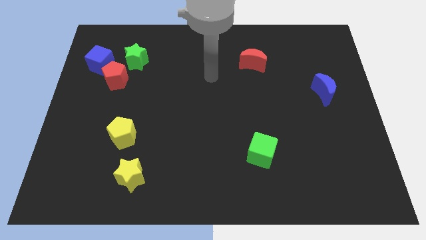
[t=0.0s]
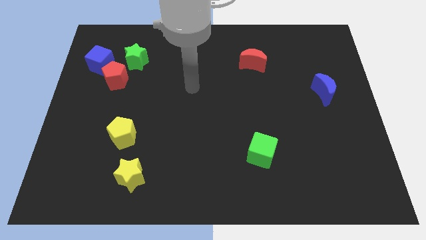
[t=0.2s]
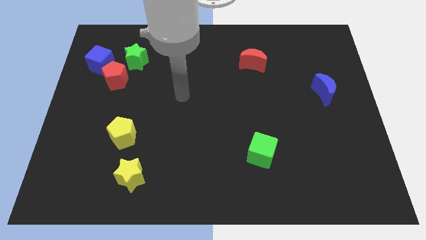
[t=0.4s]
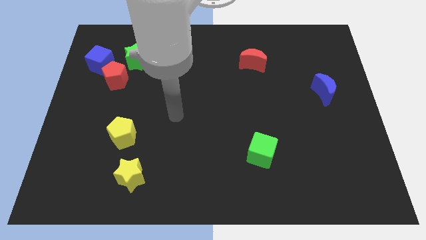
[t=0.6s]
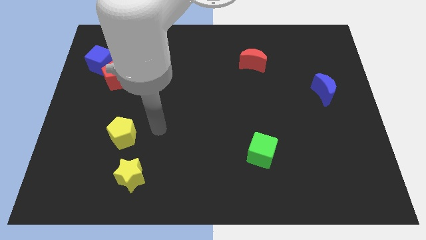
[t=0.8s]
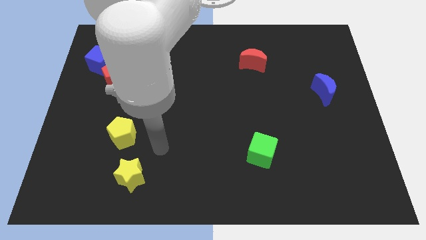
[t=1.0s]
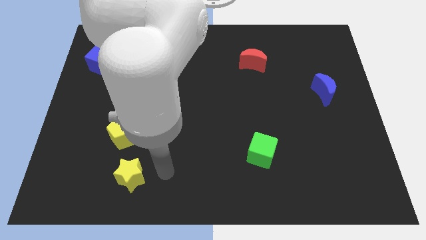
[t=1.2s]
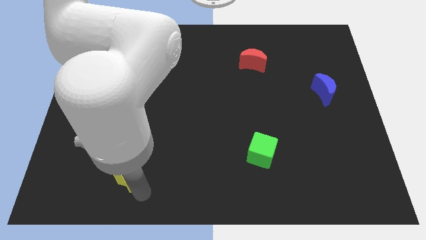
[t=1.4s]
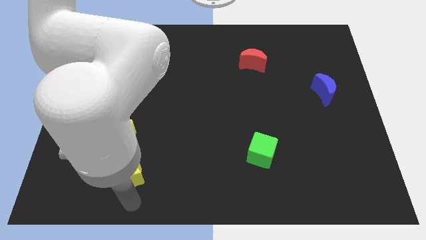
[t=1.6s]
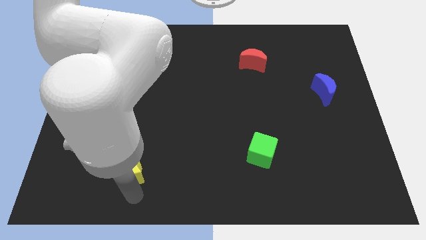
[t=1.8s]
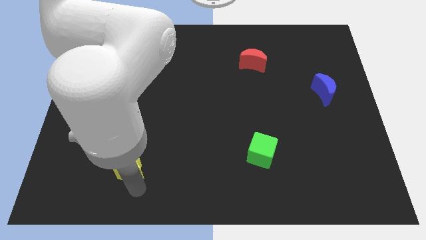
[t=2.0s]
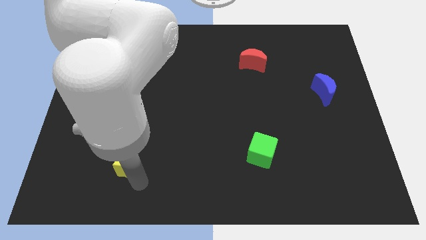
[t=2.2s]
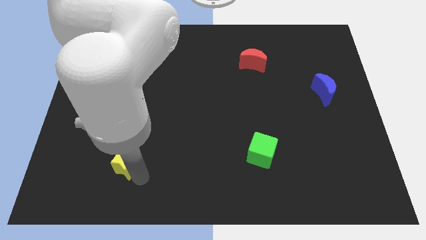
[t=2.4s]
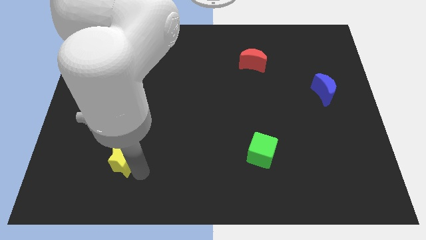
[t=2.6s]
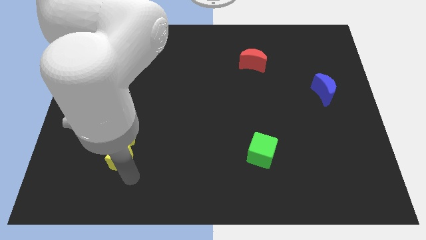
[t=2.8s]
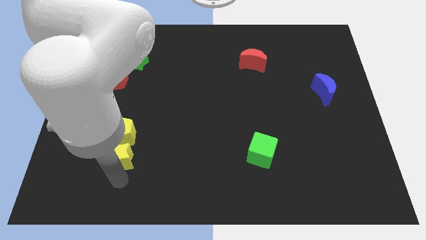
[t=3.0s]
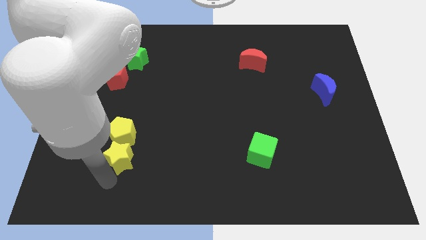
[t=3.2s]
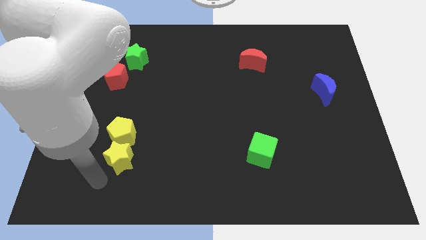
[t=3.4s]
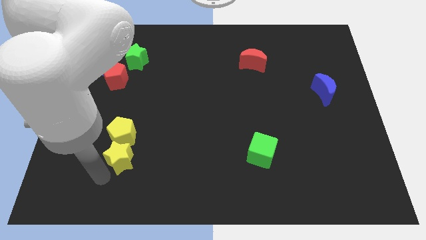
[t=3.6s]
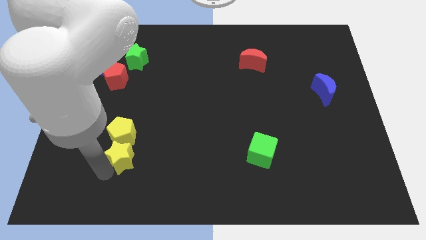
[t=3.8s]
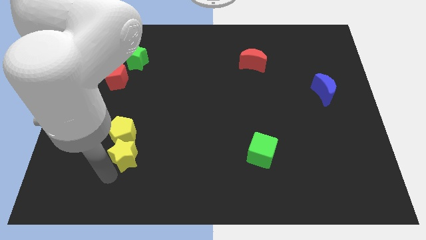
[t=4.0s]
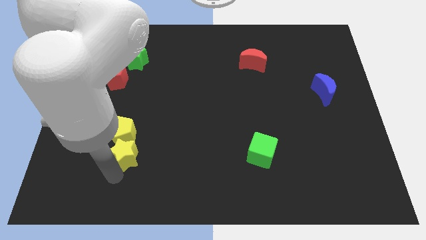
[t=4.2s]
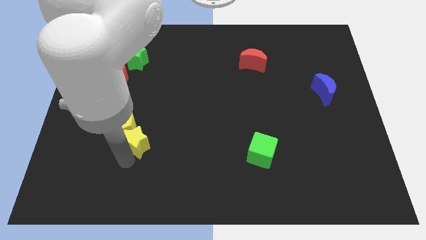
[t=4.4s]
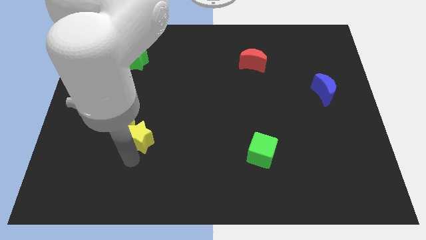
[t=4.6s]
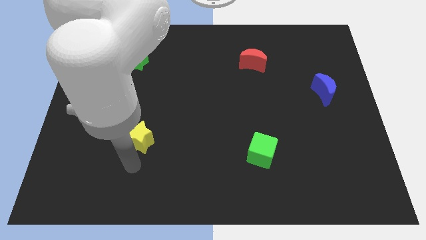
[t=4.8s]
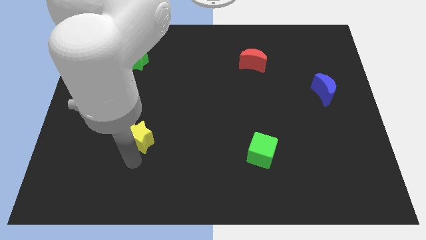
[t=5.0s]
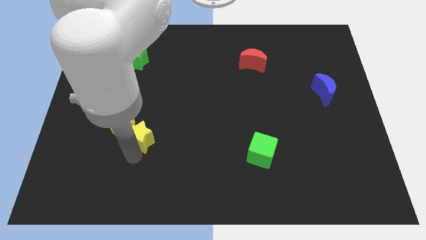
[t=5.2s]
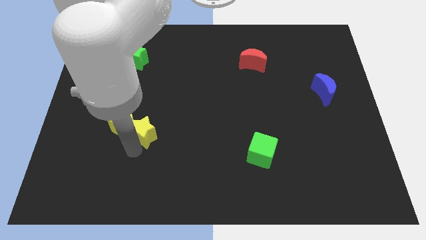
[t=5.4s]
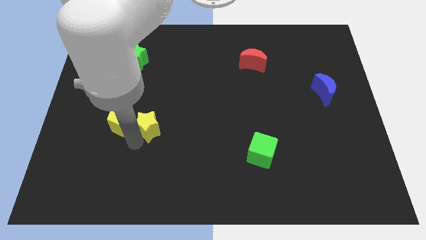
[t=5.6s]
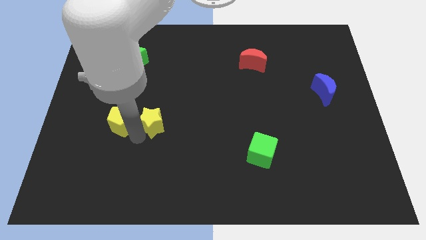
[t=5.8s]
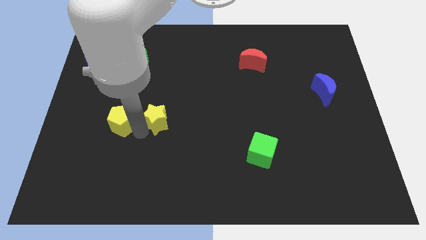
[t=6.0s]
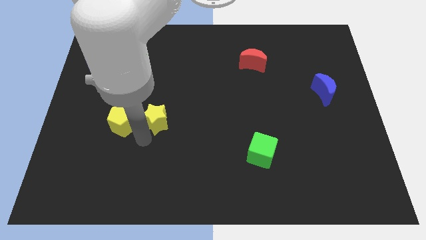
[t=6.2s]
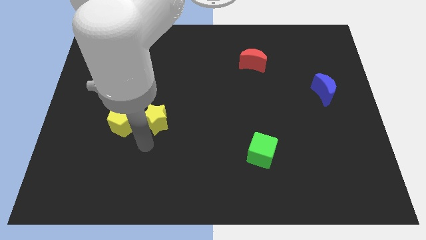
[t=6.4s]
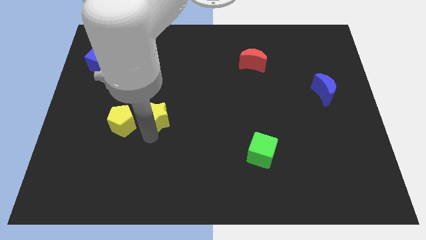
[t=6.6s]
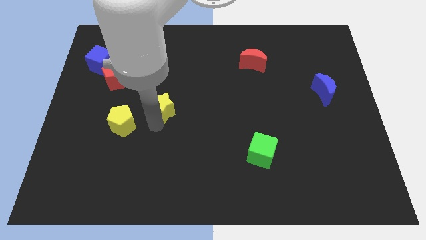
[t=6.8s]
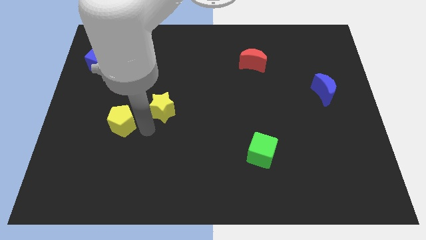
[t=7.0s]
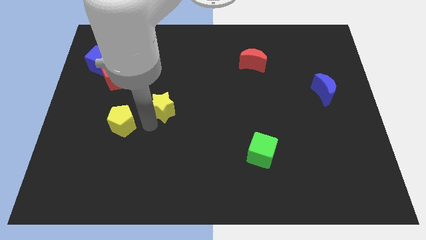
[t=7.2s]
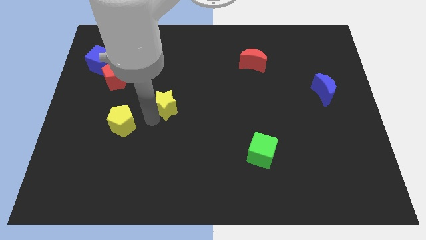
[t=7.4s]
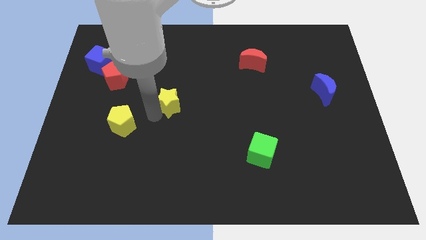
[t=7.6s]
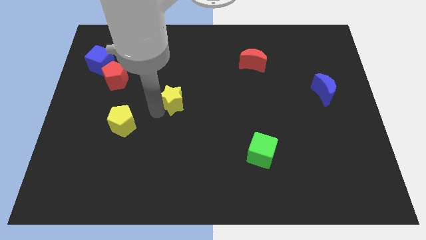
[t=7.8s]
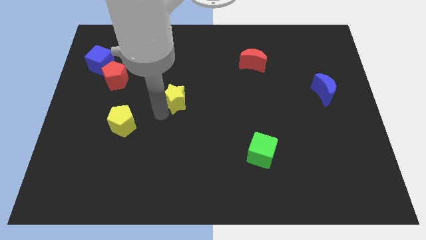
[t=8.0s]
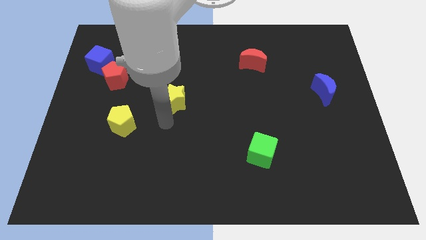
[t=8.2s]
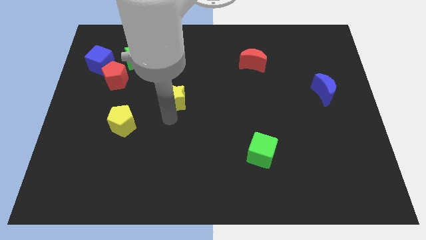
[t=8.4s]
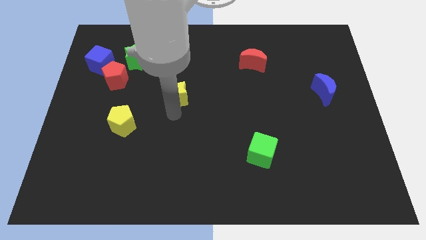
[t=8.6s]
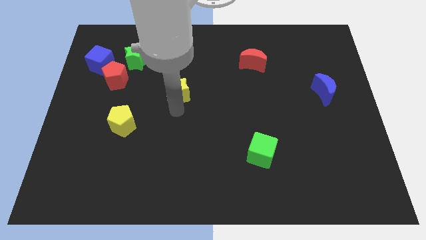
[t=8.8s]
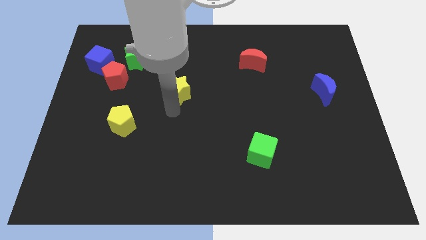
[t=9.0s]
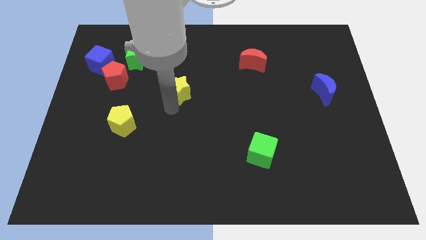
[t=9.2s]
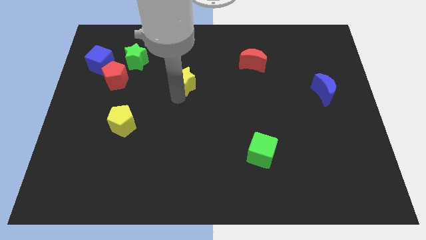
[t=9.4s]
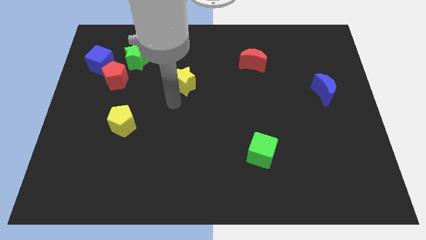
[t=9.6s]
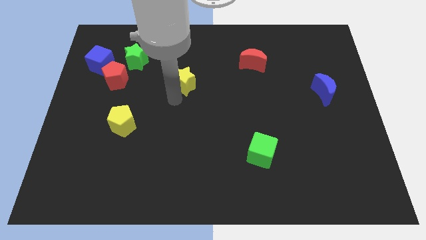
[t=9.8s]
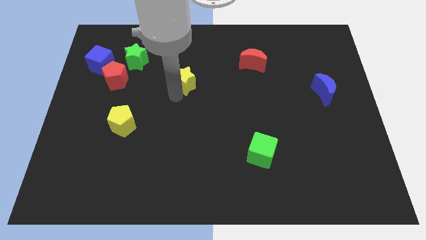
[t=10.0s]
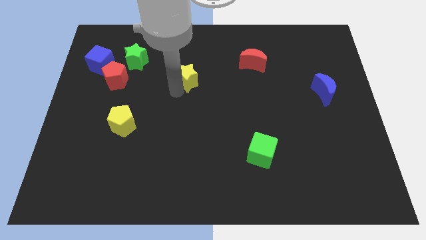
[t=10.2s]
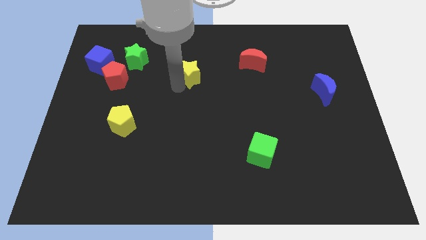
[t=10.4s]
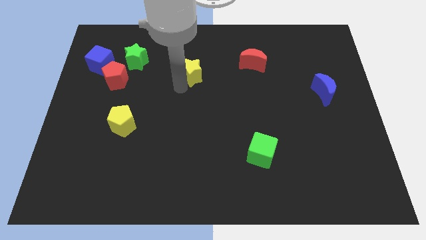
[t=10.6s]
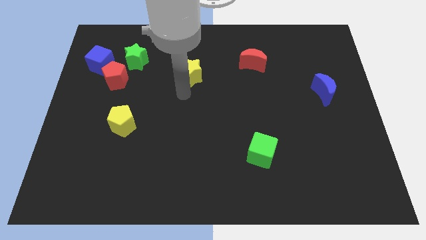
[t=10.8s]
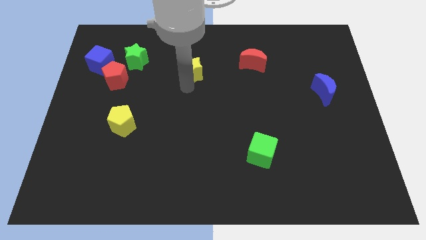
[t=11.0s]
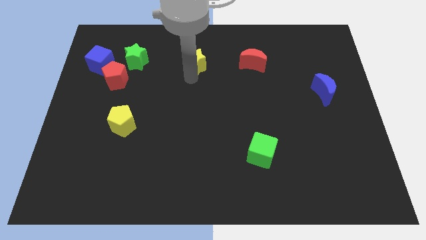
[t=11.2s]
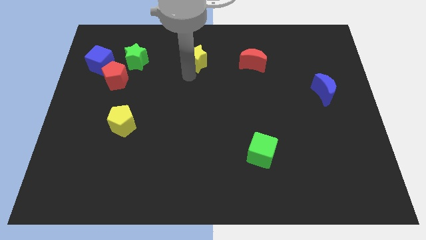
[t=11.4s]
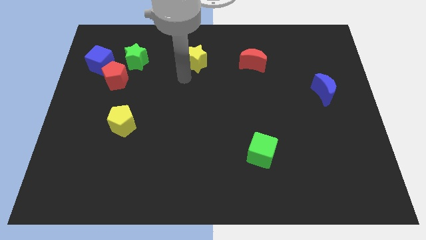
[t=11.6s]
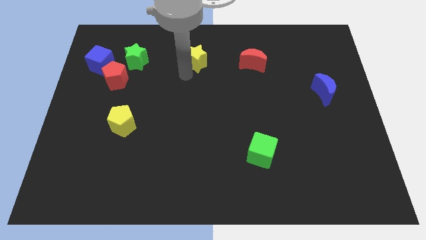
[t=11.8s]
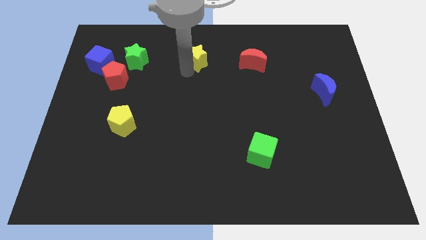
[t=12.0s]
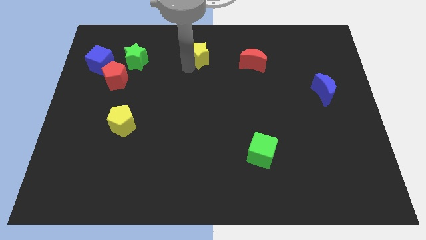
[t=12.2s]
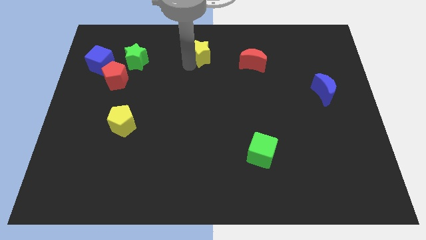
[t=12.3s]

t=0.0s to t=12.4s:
push the yellow star to the top
